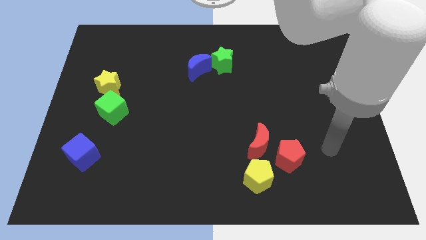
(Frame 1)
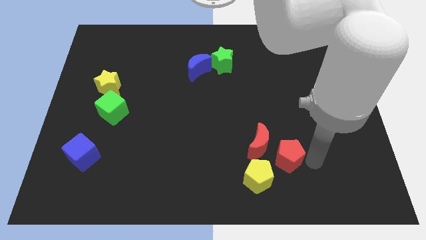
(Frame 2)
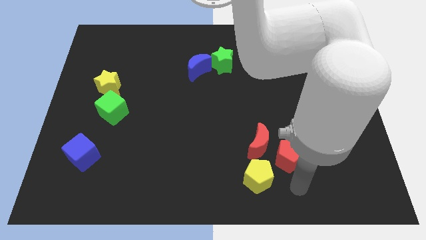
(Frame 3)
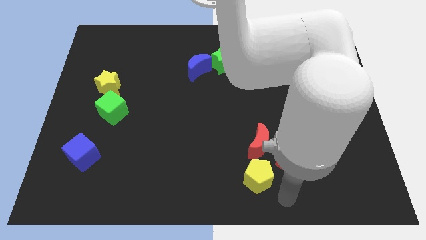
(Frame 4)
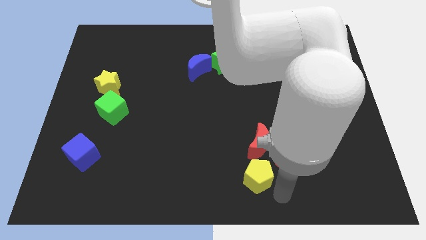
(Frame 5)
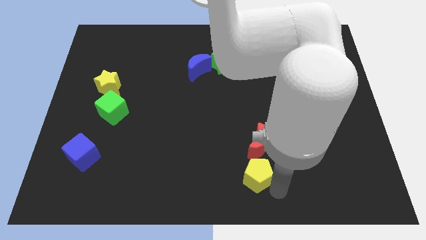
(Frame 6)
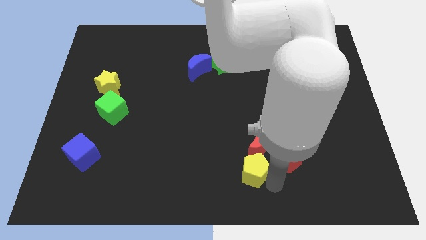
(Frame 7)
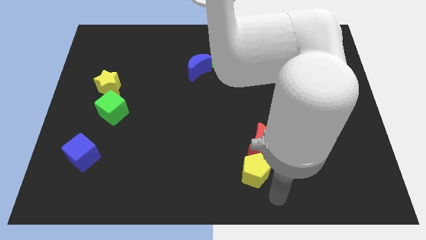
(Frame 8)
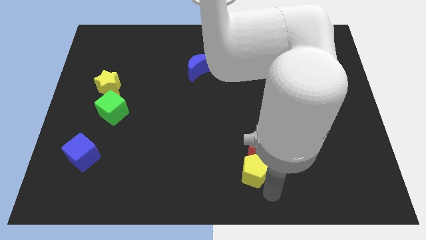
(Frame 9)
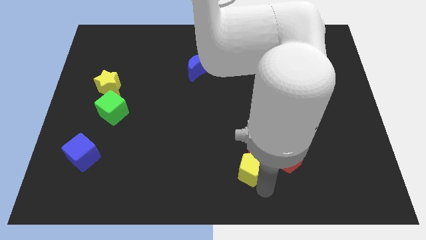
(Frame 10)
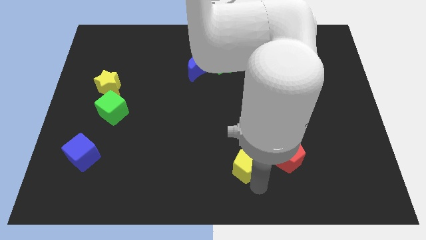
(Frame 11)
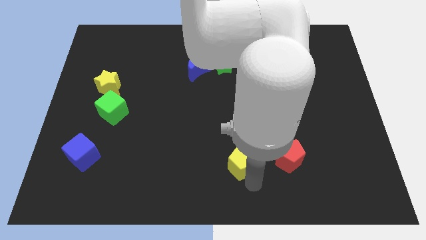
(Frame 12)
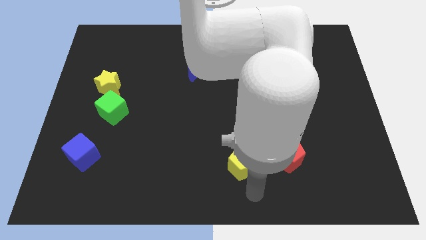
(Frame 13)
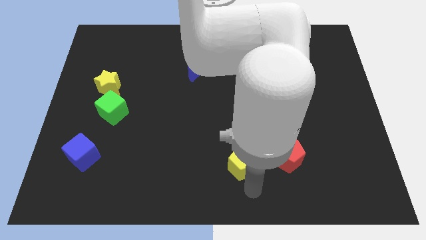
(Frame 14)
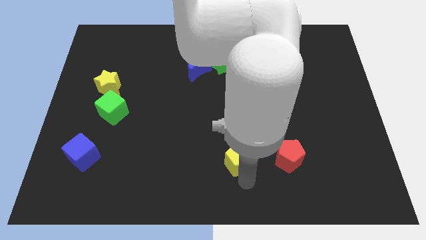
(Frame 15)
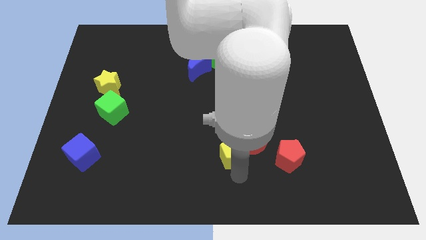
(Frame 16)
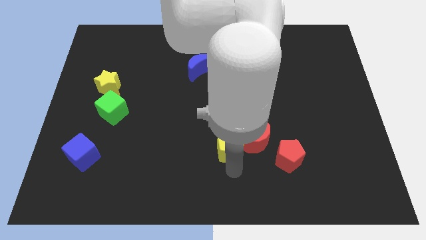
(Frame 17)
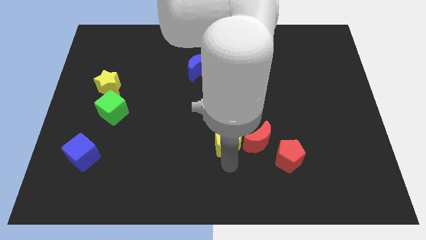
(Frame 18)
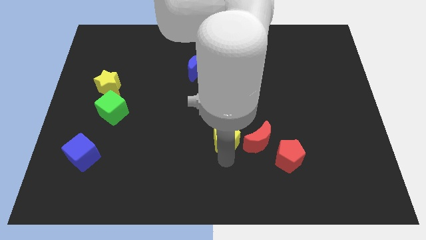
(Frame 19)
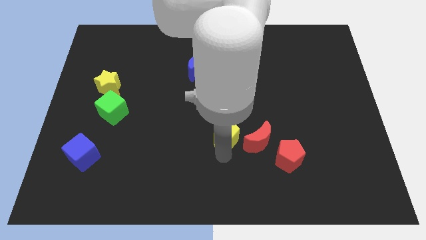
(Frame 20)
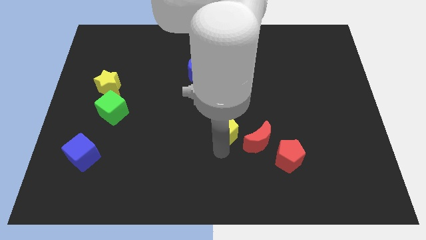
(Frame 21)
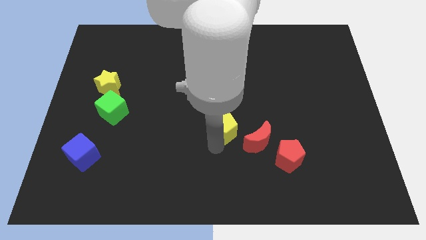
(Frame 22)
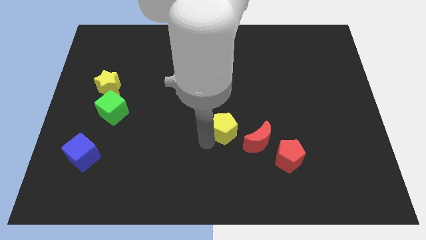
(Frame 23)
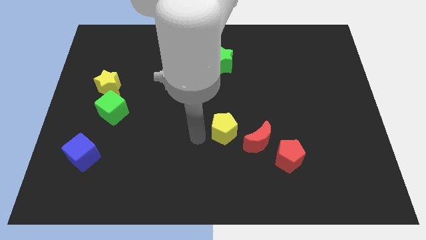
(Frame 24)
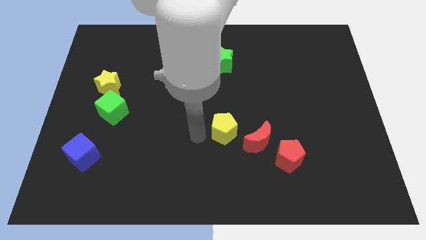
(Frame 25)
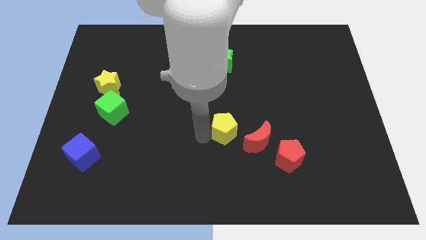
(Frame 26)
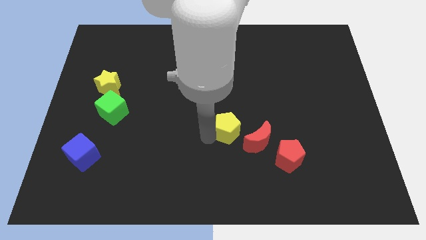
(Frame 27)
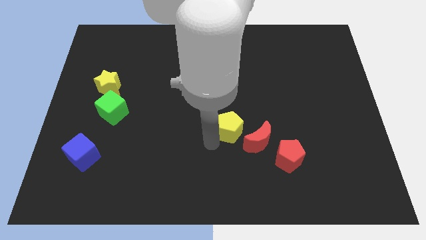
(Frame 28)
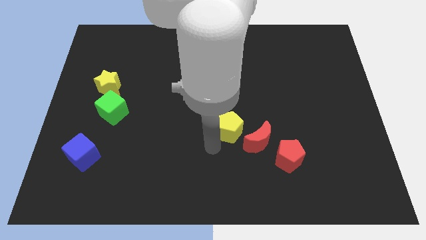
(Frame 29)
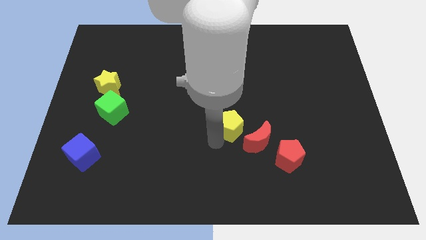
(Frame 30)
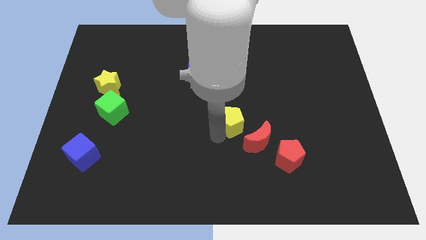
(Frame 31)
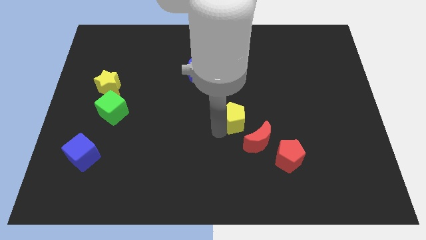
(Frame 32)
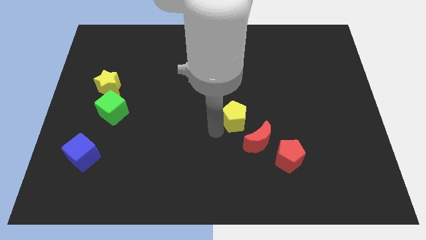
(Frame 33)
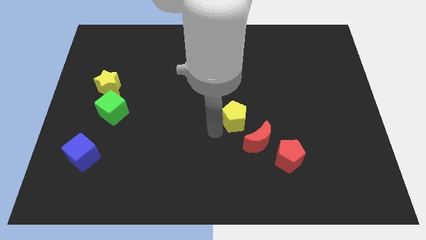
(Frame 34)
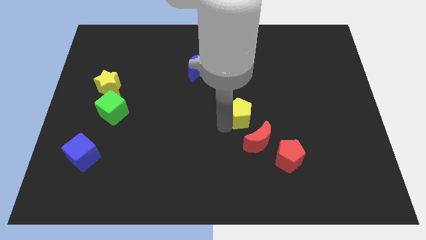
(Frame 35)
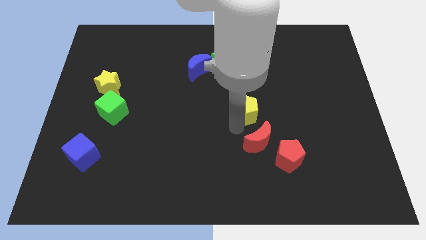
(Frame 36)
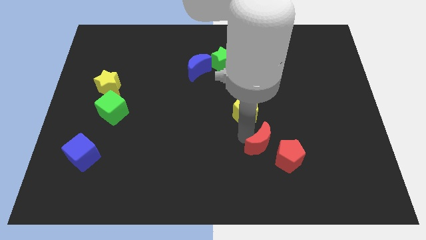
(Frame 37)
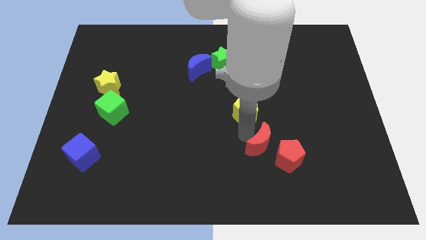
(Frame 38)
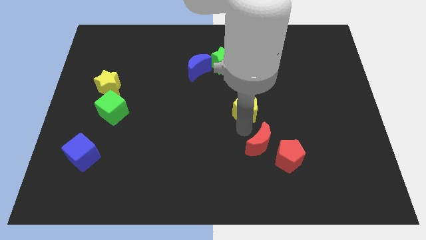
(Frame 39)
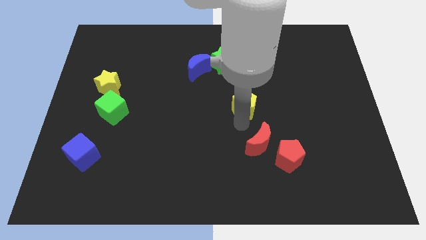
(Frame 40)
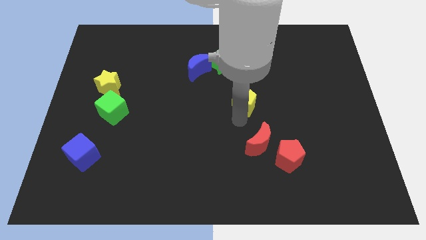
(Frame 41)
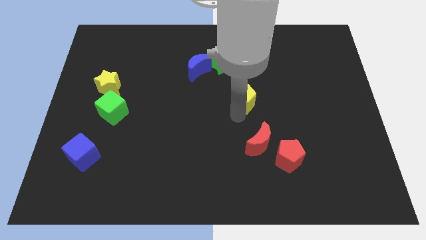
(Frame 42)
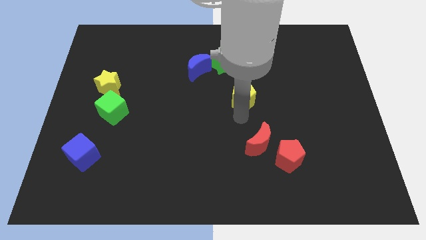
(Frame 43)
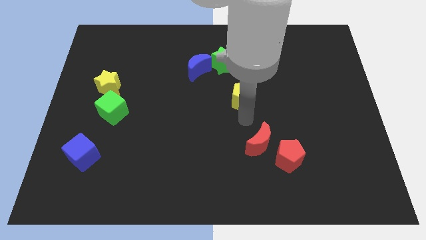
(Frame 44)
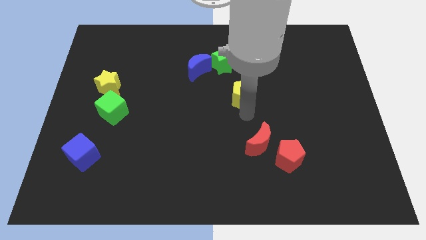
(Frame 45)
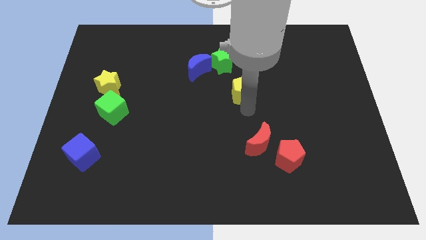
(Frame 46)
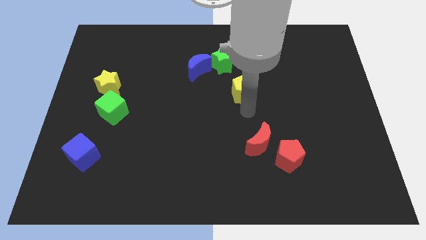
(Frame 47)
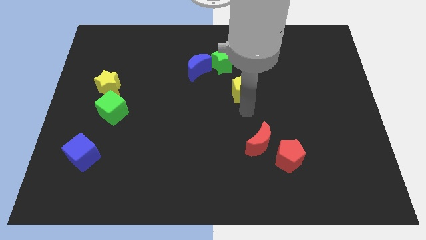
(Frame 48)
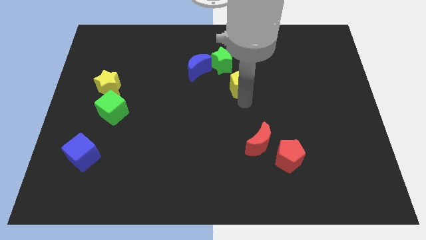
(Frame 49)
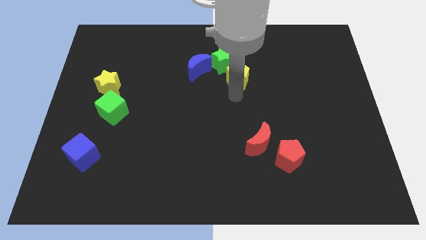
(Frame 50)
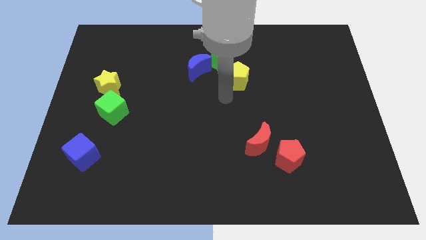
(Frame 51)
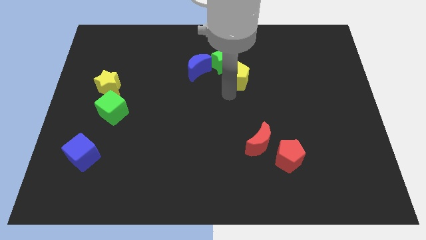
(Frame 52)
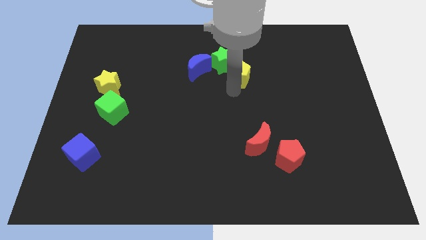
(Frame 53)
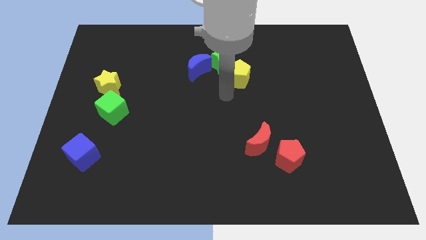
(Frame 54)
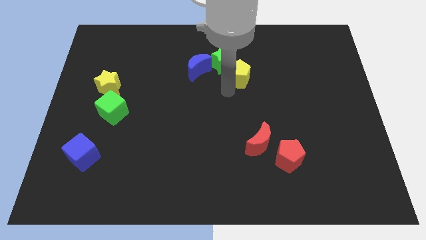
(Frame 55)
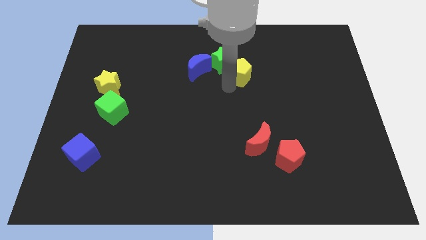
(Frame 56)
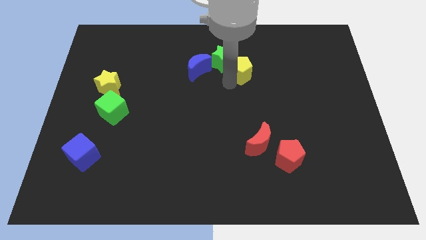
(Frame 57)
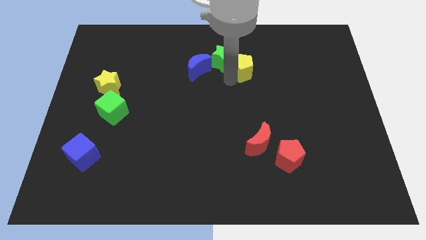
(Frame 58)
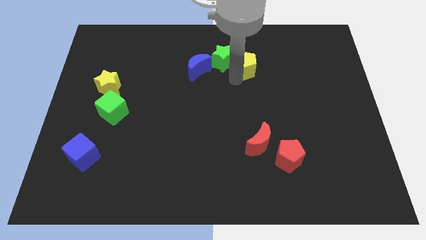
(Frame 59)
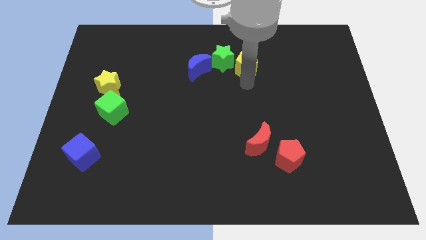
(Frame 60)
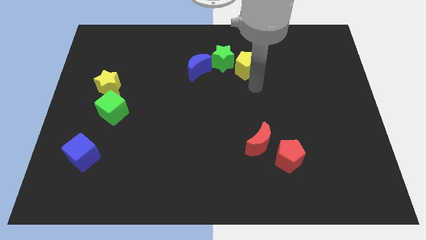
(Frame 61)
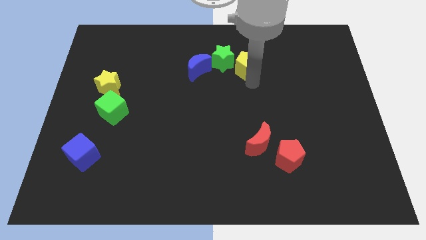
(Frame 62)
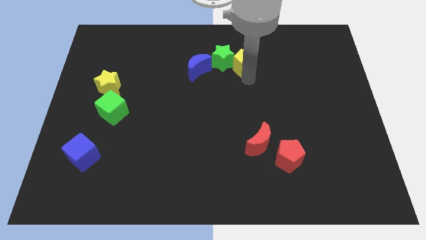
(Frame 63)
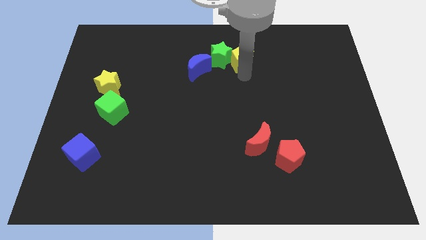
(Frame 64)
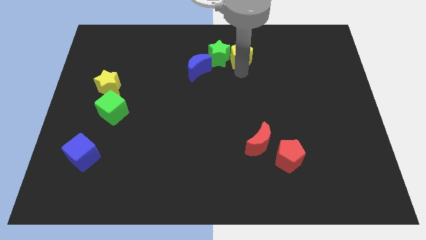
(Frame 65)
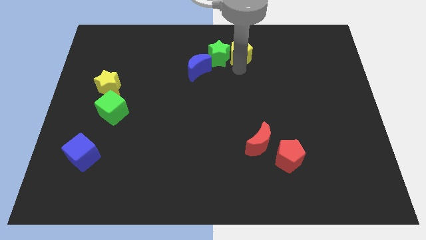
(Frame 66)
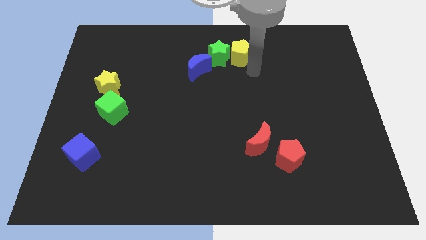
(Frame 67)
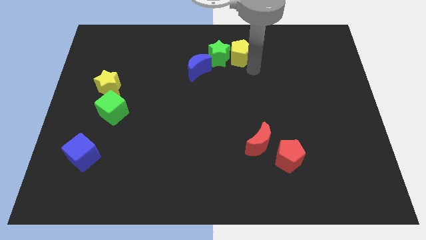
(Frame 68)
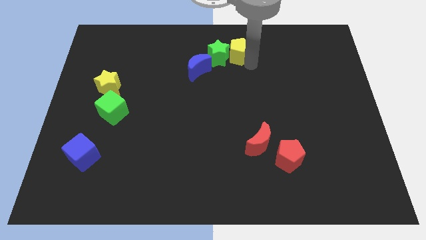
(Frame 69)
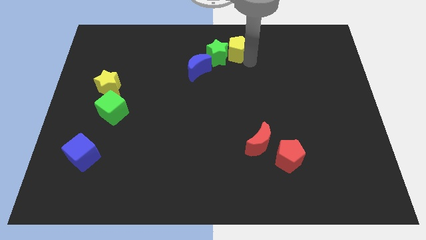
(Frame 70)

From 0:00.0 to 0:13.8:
put the yellow pentagon to the towards your base
